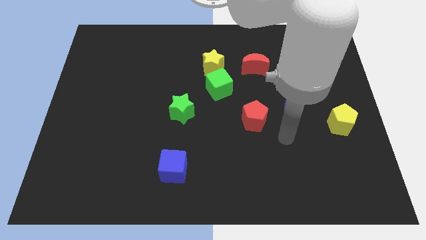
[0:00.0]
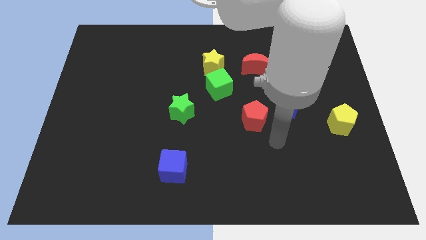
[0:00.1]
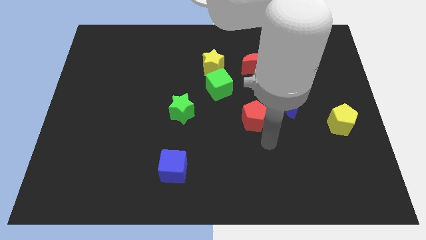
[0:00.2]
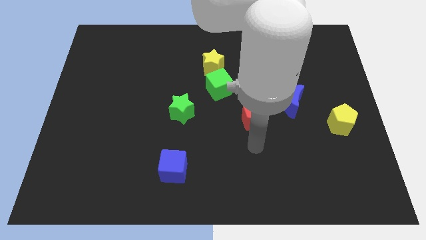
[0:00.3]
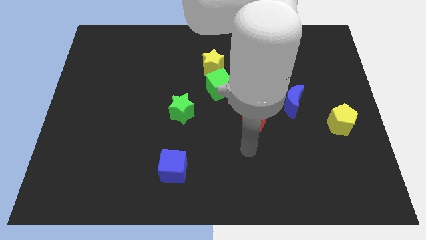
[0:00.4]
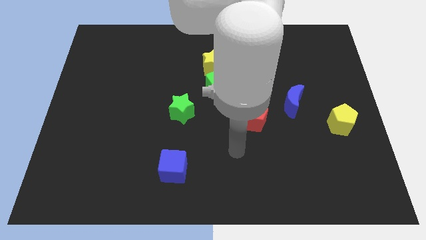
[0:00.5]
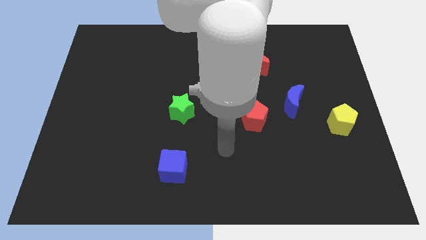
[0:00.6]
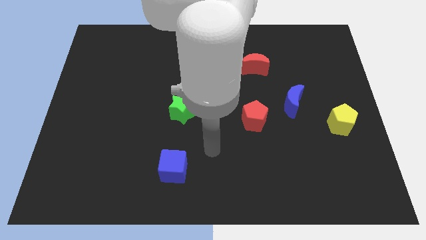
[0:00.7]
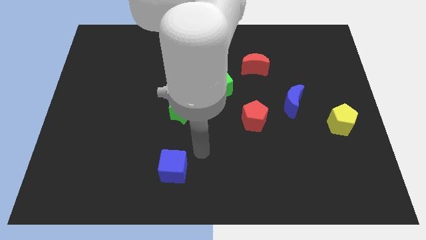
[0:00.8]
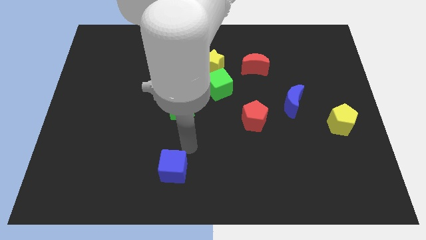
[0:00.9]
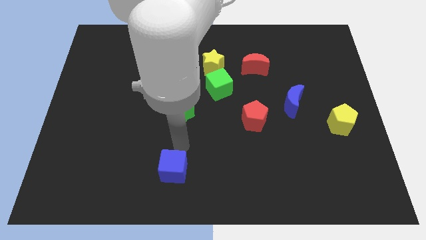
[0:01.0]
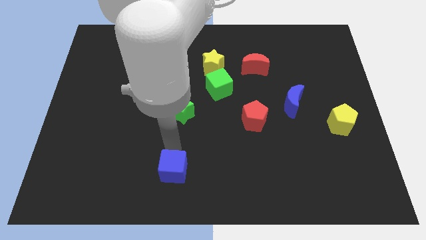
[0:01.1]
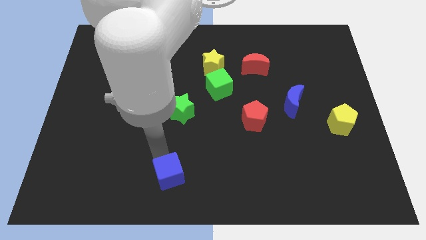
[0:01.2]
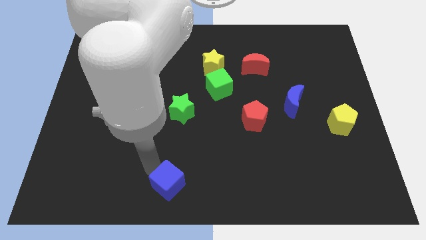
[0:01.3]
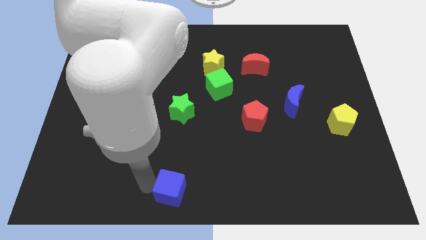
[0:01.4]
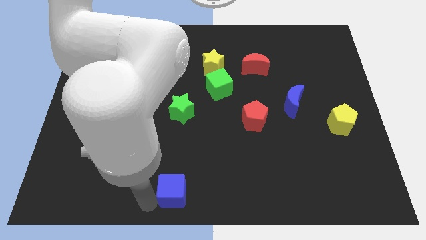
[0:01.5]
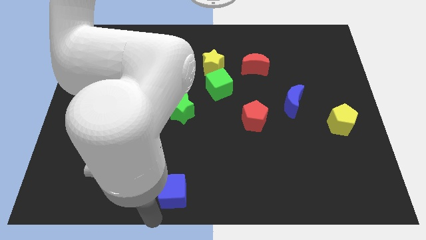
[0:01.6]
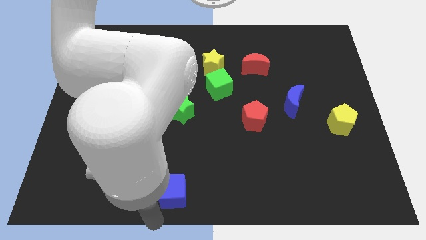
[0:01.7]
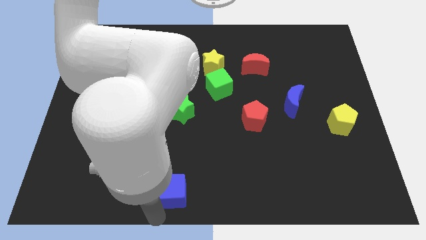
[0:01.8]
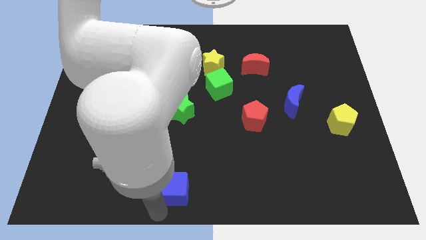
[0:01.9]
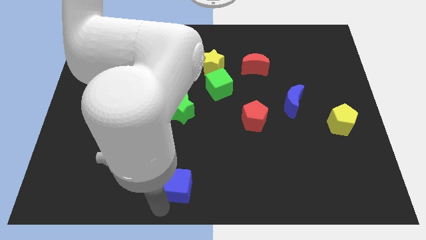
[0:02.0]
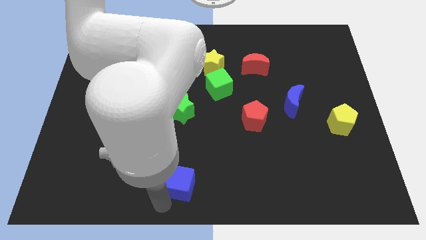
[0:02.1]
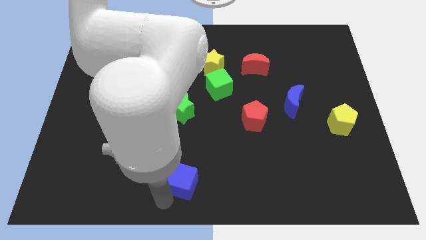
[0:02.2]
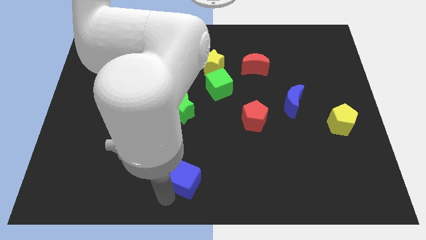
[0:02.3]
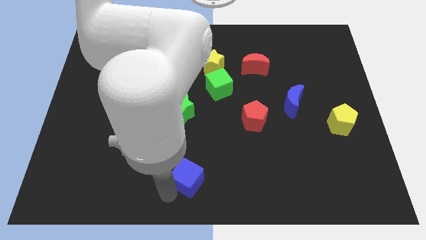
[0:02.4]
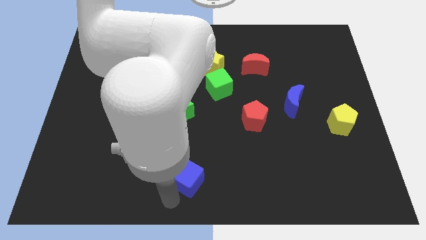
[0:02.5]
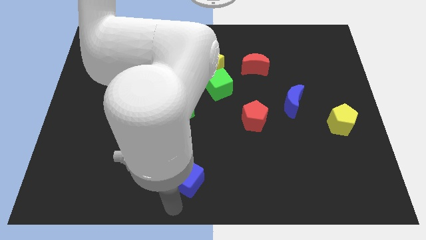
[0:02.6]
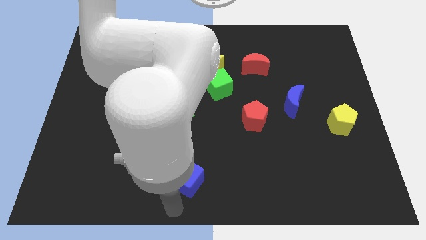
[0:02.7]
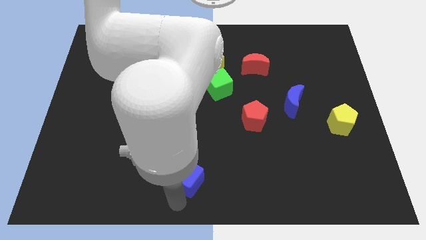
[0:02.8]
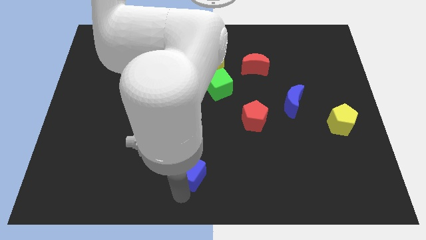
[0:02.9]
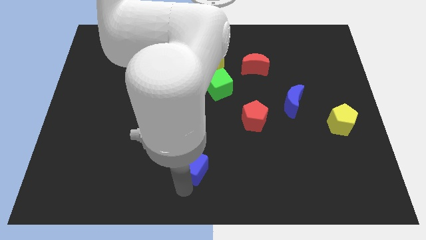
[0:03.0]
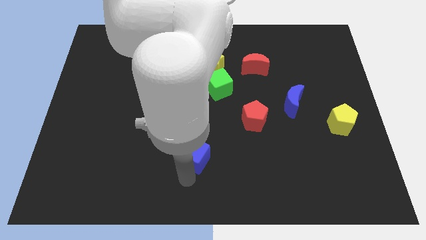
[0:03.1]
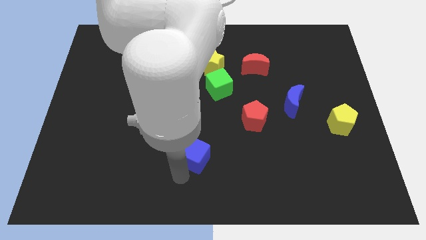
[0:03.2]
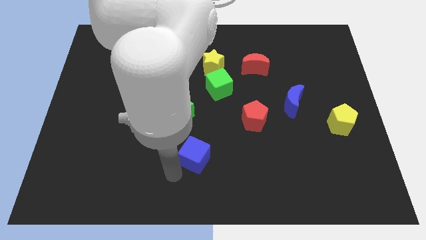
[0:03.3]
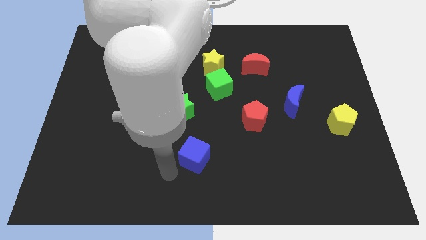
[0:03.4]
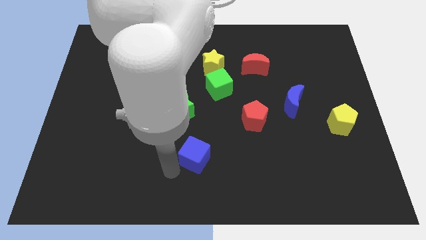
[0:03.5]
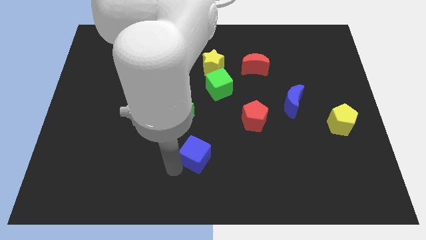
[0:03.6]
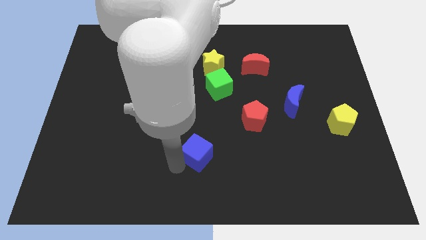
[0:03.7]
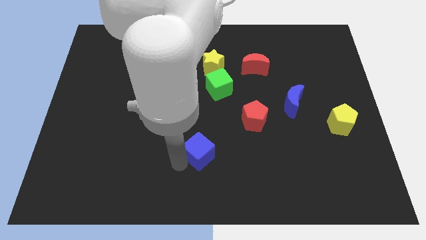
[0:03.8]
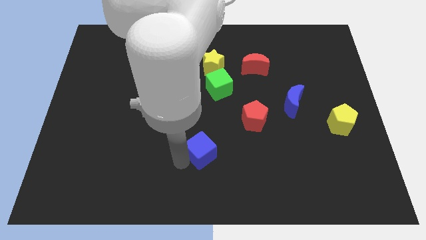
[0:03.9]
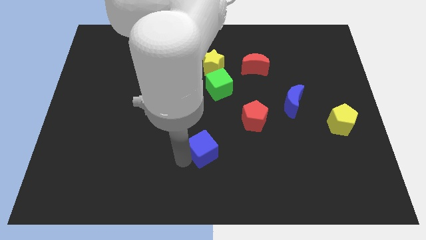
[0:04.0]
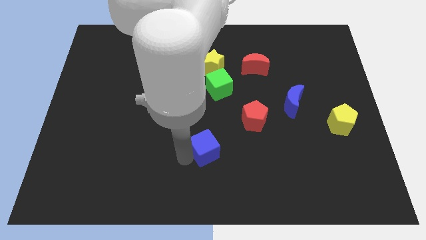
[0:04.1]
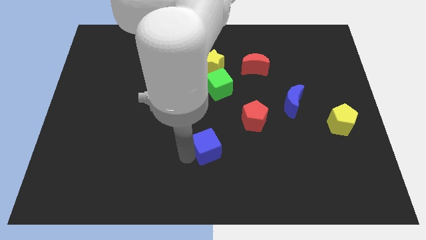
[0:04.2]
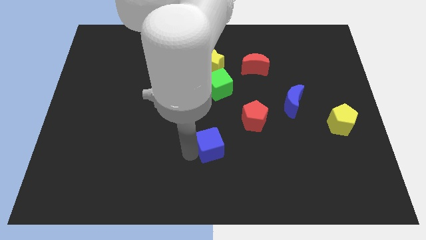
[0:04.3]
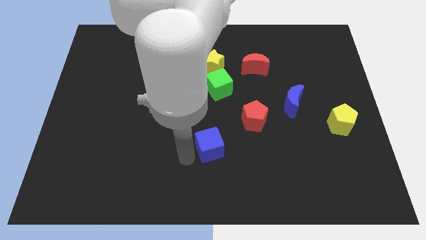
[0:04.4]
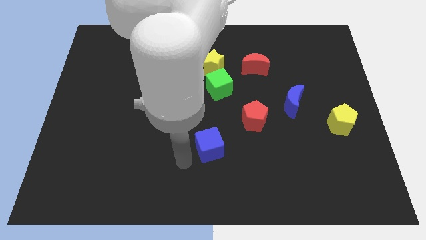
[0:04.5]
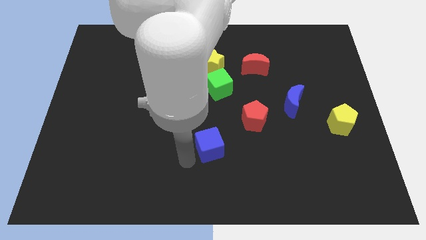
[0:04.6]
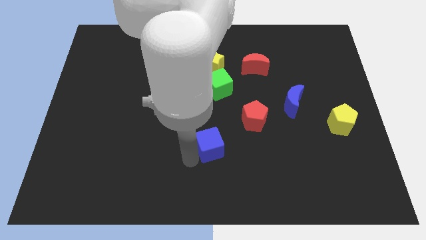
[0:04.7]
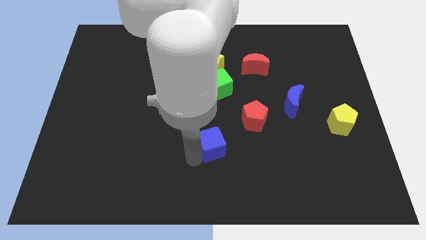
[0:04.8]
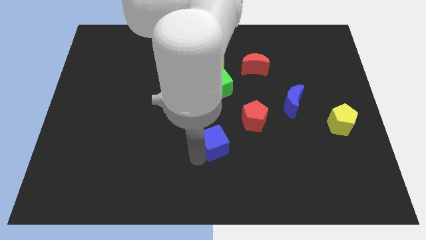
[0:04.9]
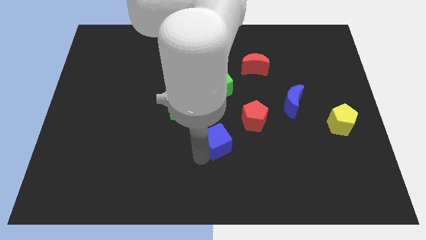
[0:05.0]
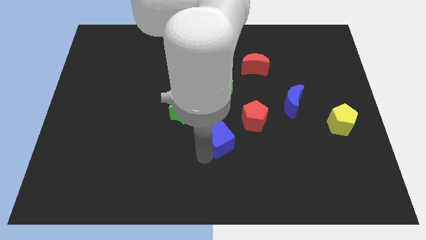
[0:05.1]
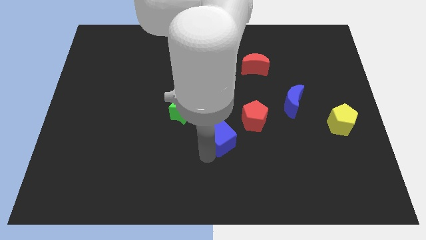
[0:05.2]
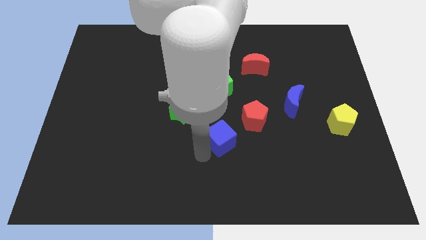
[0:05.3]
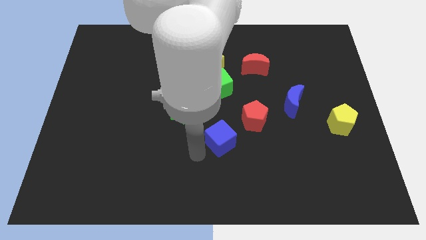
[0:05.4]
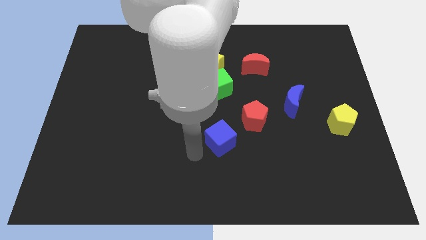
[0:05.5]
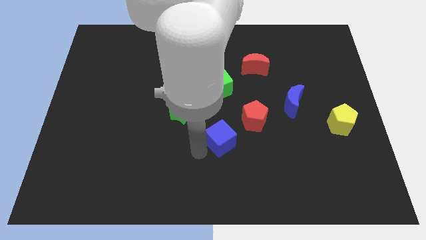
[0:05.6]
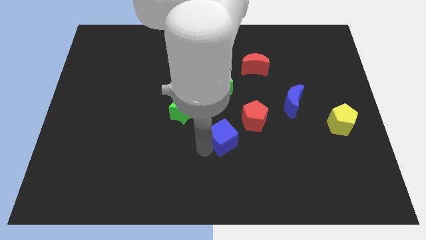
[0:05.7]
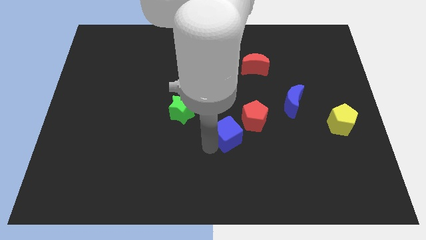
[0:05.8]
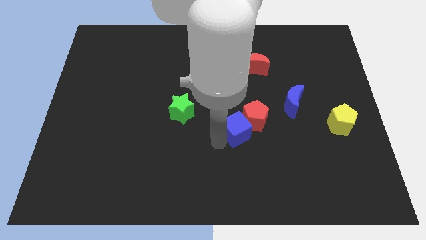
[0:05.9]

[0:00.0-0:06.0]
put the blue cube towards the red pentagon

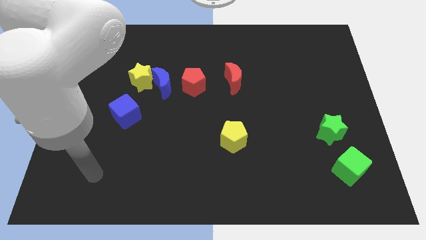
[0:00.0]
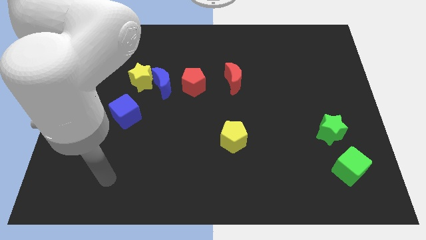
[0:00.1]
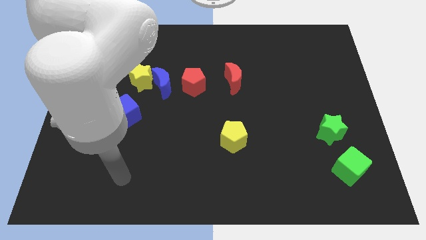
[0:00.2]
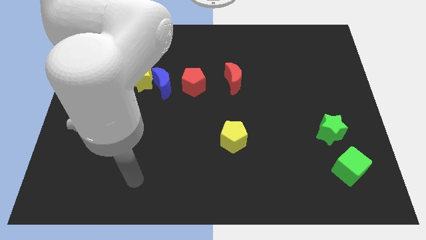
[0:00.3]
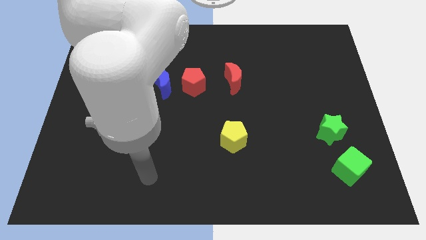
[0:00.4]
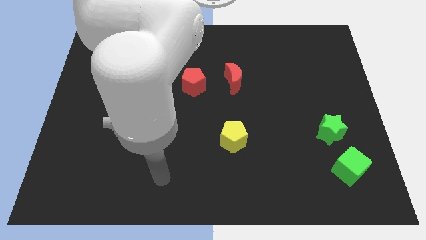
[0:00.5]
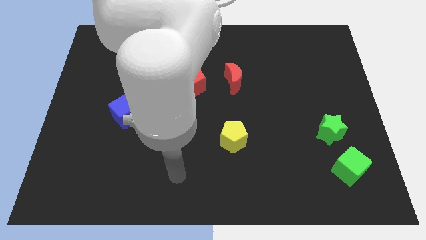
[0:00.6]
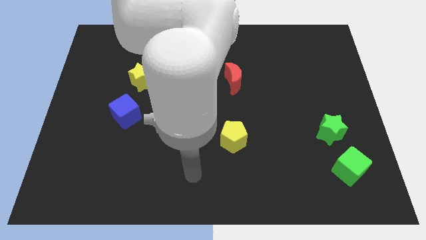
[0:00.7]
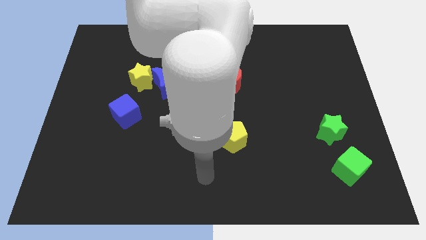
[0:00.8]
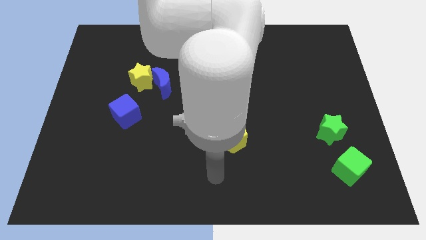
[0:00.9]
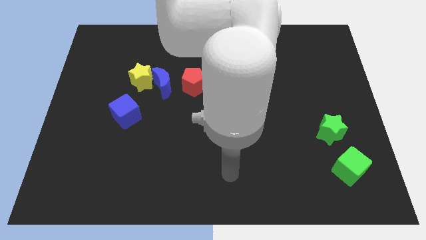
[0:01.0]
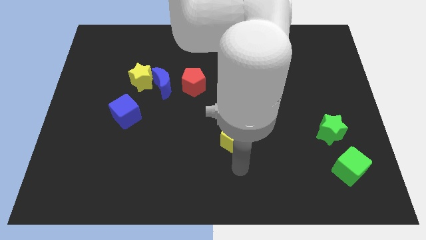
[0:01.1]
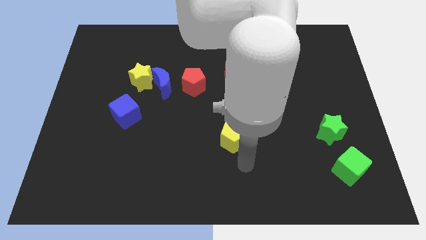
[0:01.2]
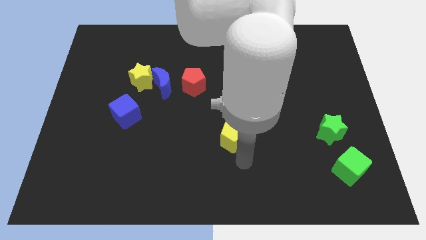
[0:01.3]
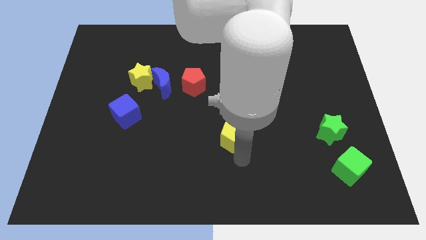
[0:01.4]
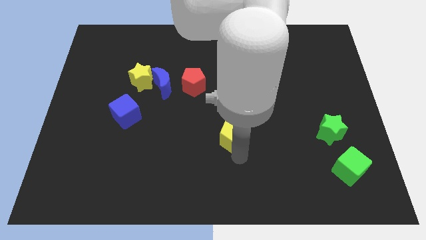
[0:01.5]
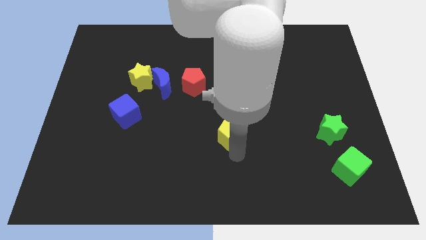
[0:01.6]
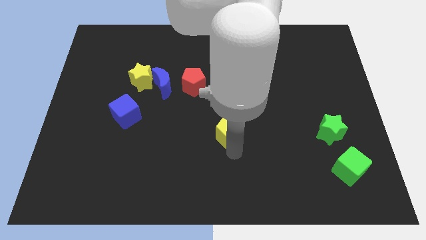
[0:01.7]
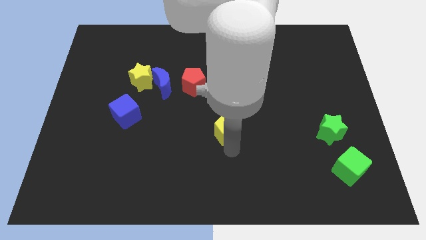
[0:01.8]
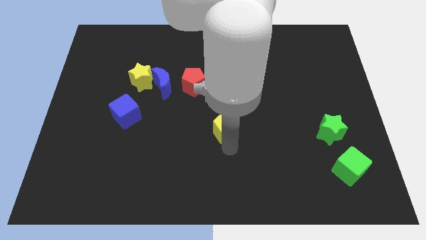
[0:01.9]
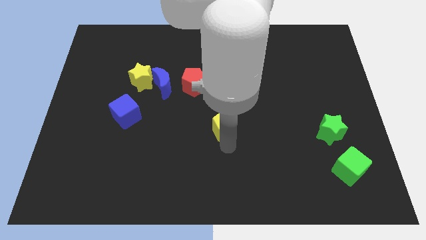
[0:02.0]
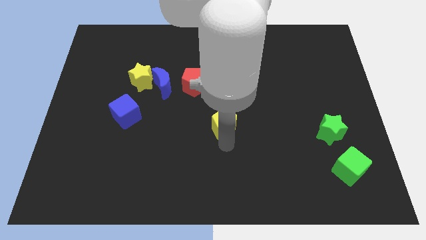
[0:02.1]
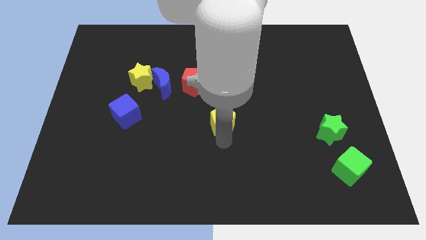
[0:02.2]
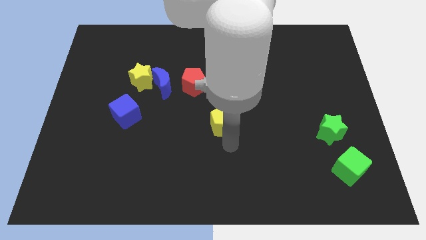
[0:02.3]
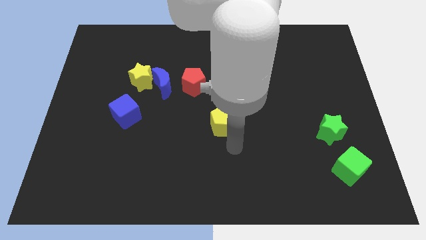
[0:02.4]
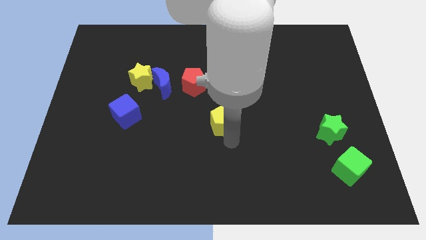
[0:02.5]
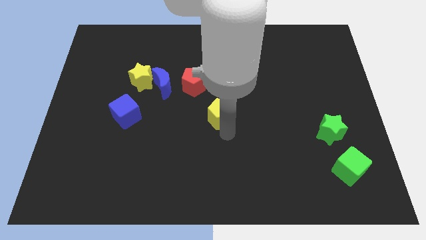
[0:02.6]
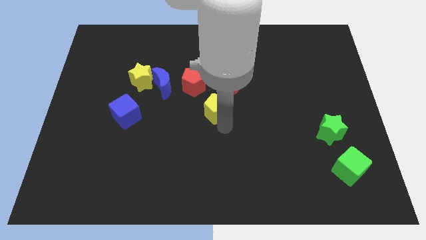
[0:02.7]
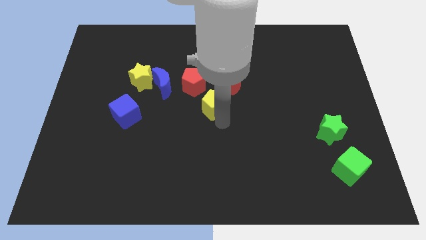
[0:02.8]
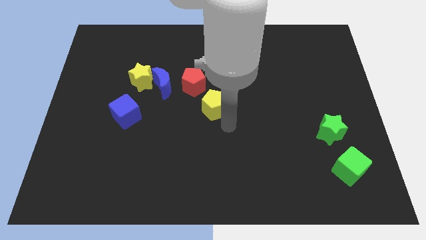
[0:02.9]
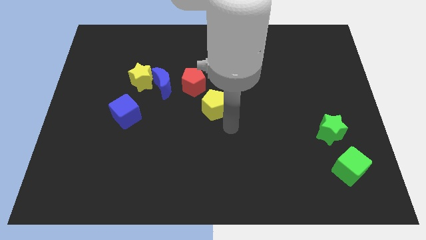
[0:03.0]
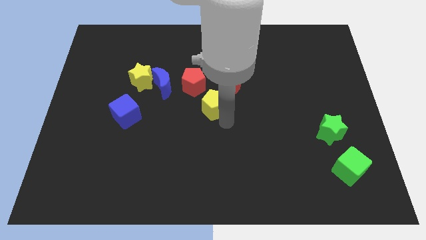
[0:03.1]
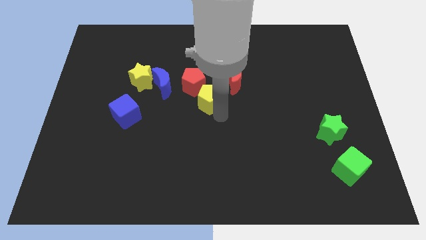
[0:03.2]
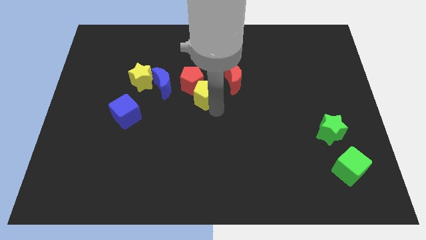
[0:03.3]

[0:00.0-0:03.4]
put the yellow pentagon towards the red pentagon
